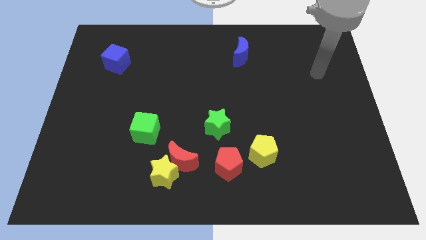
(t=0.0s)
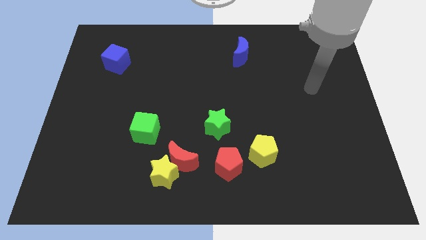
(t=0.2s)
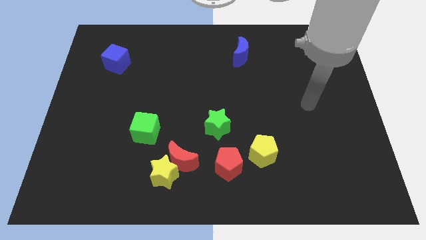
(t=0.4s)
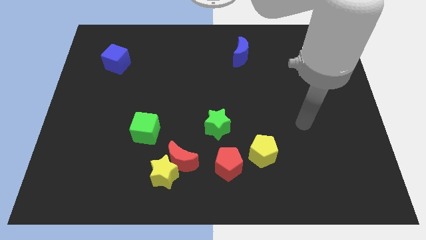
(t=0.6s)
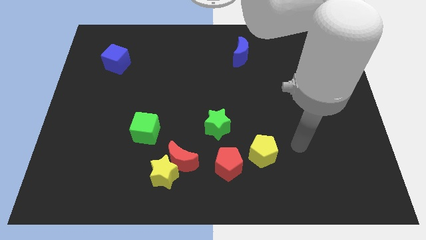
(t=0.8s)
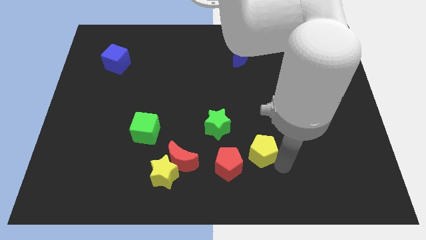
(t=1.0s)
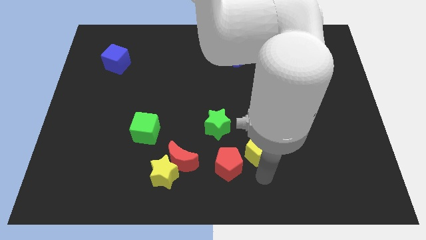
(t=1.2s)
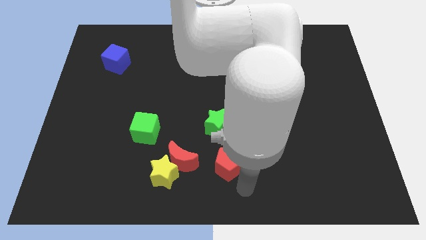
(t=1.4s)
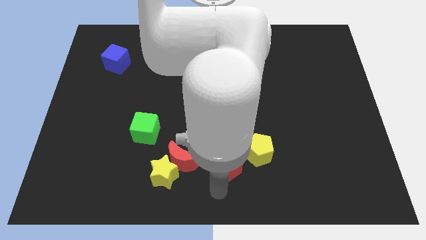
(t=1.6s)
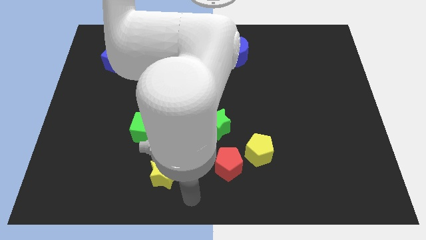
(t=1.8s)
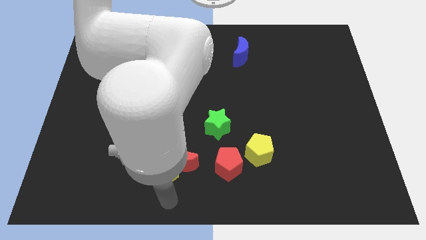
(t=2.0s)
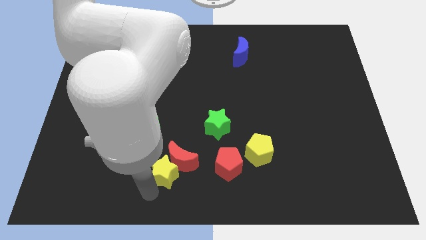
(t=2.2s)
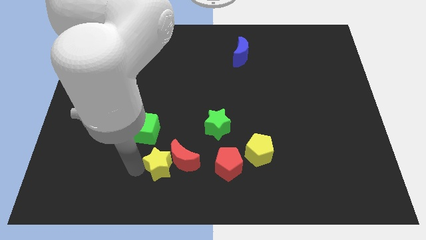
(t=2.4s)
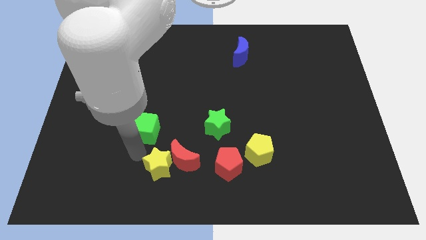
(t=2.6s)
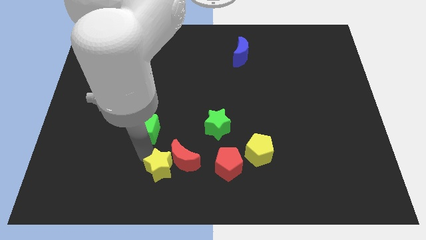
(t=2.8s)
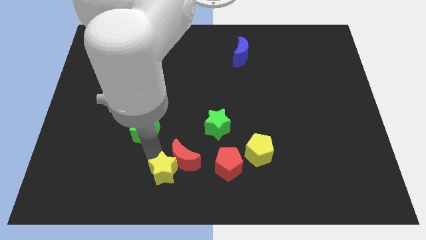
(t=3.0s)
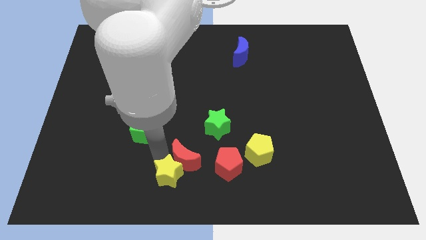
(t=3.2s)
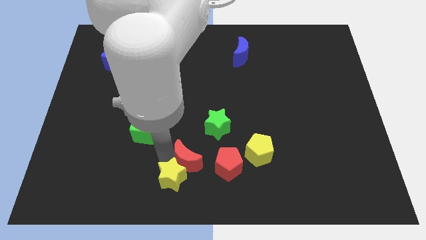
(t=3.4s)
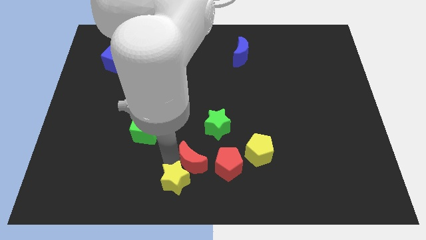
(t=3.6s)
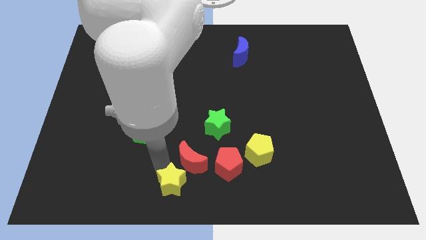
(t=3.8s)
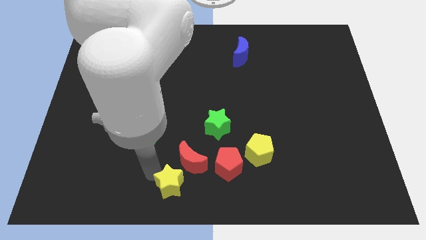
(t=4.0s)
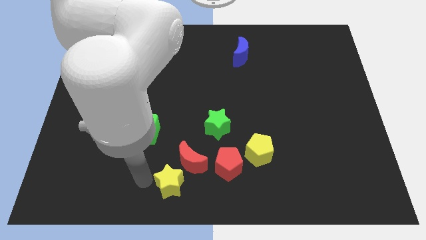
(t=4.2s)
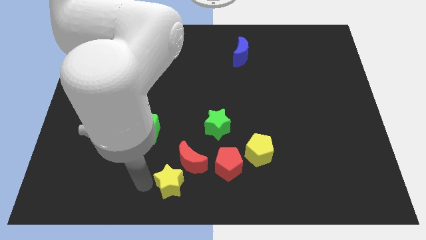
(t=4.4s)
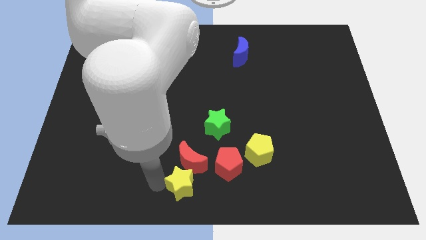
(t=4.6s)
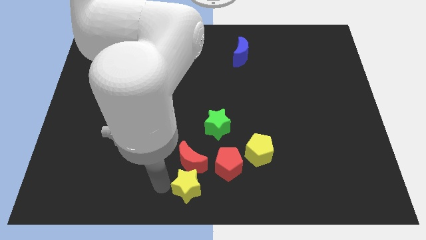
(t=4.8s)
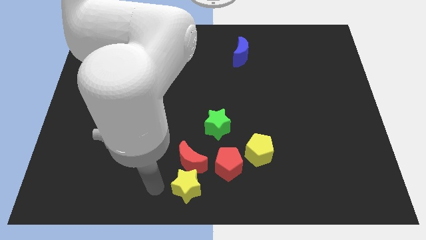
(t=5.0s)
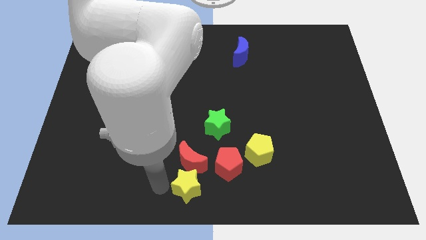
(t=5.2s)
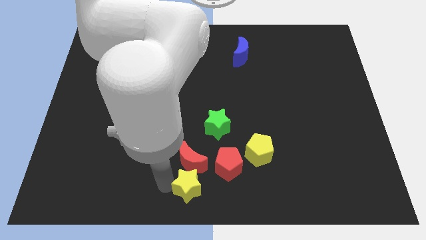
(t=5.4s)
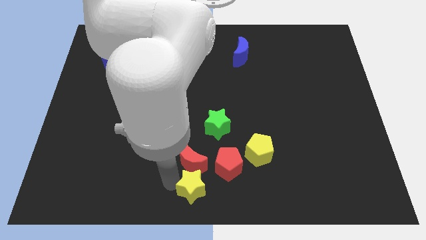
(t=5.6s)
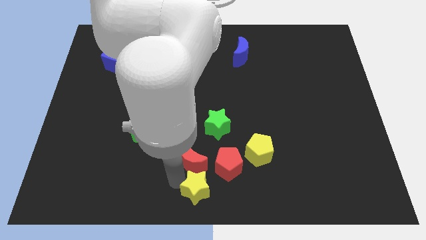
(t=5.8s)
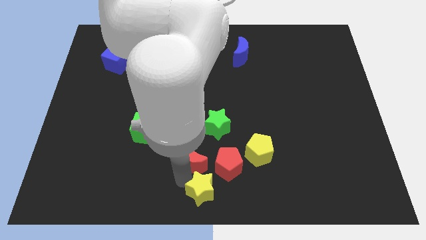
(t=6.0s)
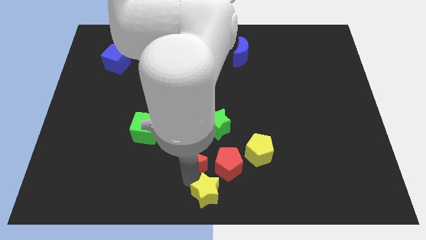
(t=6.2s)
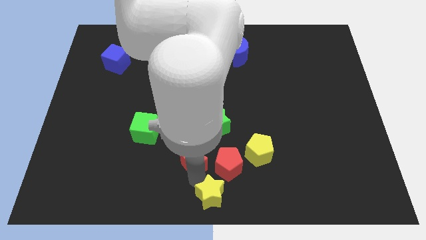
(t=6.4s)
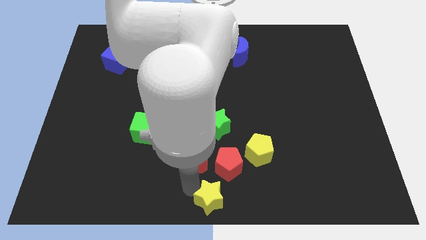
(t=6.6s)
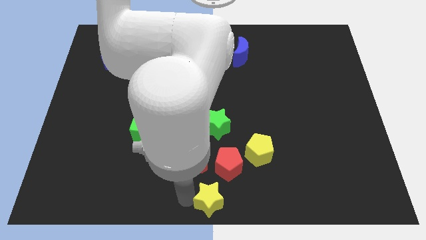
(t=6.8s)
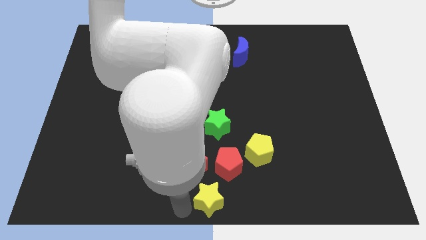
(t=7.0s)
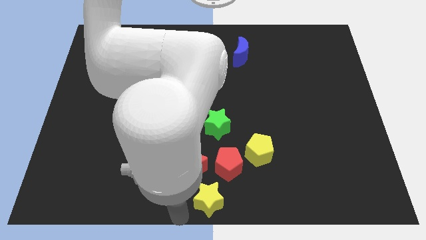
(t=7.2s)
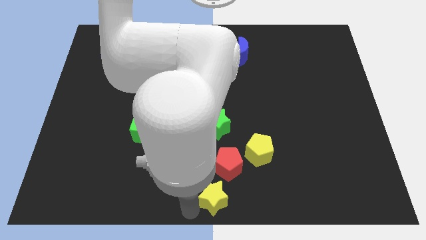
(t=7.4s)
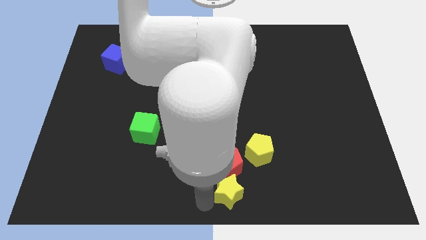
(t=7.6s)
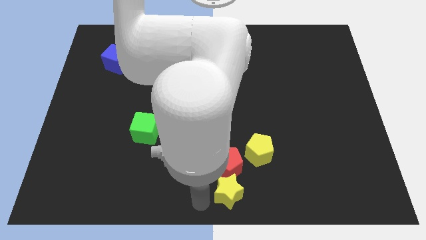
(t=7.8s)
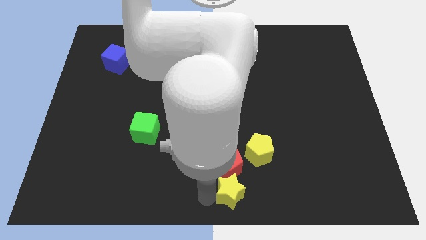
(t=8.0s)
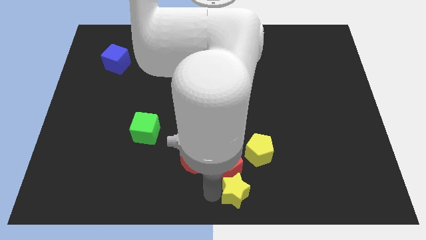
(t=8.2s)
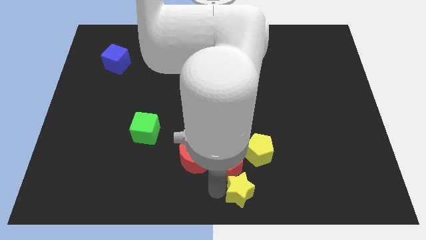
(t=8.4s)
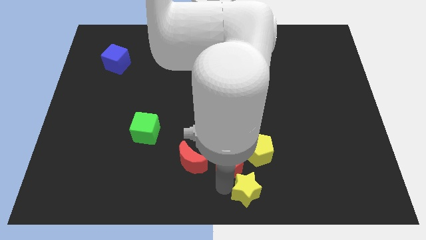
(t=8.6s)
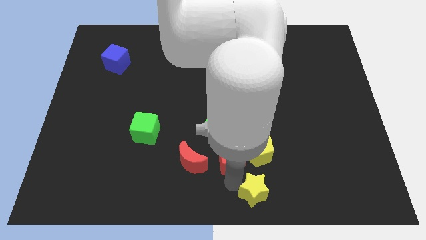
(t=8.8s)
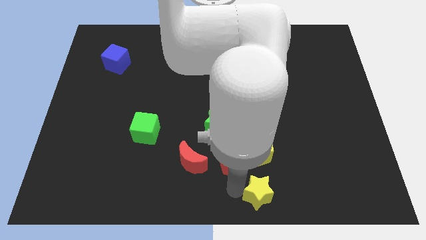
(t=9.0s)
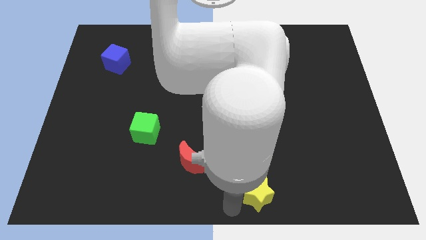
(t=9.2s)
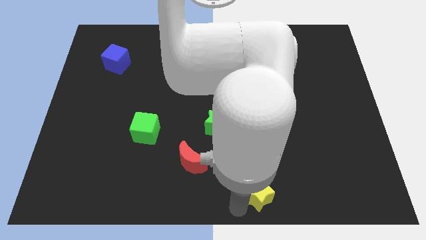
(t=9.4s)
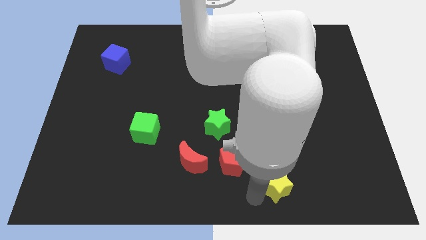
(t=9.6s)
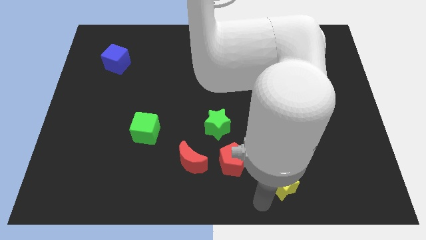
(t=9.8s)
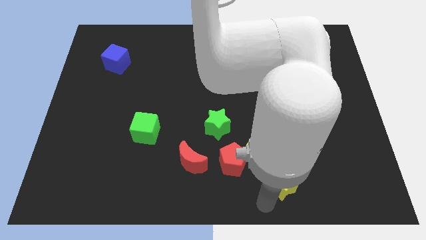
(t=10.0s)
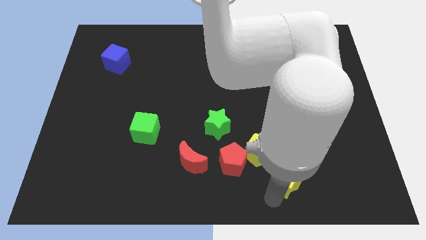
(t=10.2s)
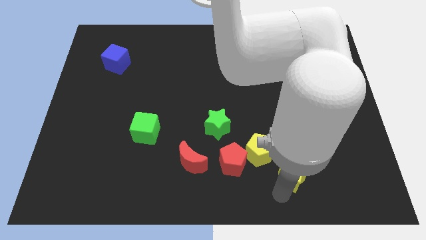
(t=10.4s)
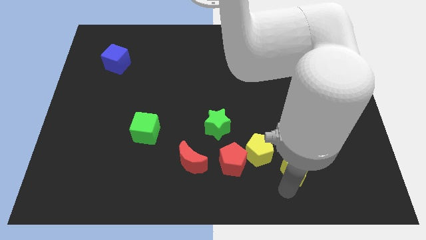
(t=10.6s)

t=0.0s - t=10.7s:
put the yellow star to the right side of the yellow pentagon

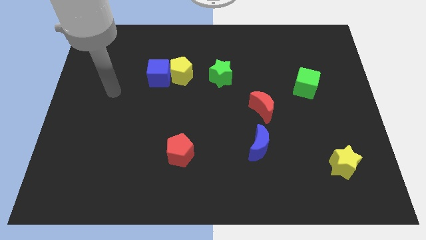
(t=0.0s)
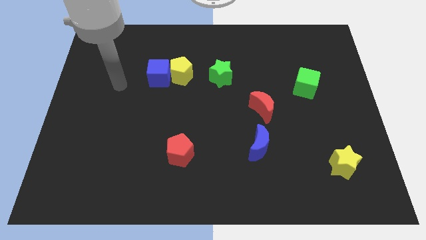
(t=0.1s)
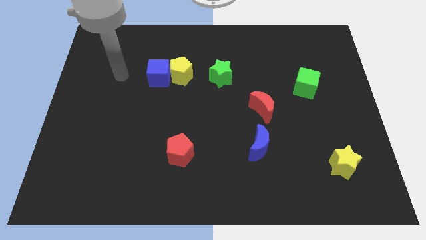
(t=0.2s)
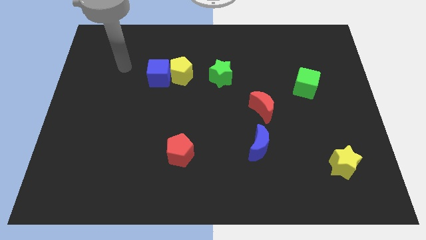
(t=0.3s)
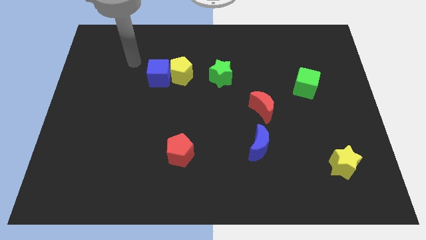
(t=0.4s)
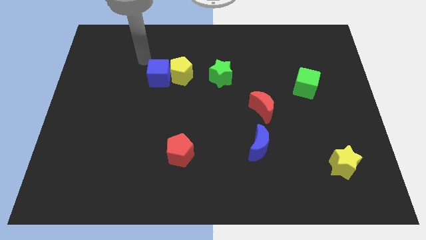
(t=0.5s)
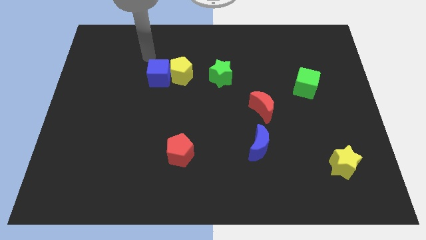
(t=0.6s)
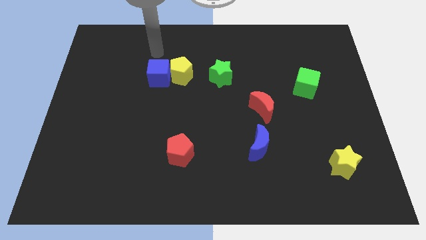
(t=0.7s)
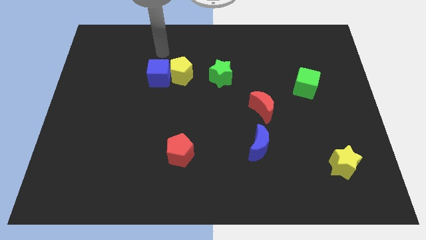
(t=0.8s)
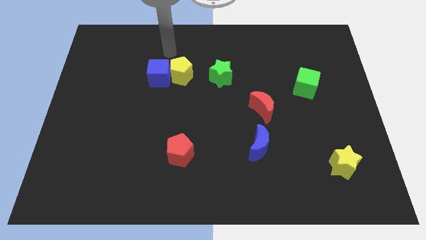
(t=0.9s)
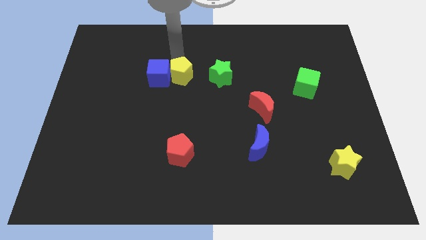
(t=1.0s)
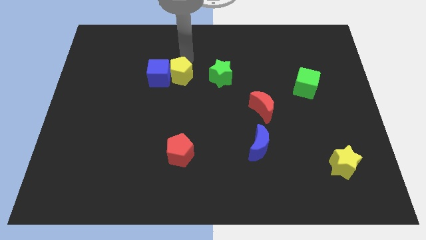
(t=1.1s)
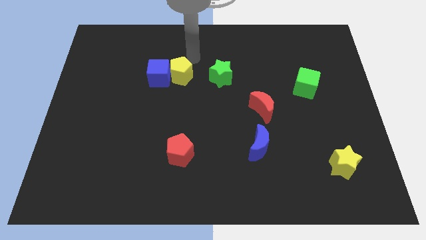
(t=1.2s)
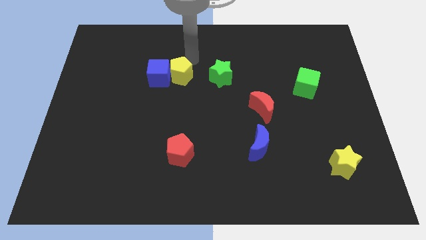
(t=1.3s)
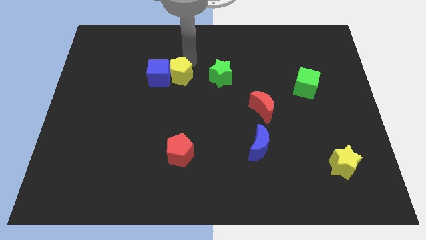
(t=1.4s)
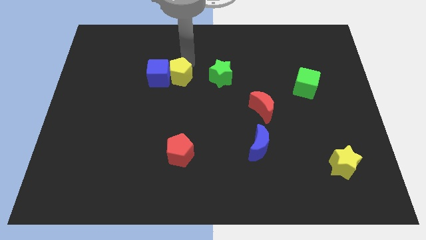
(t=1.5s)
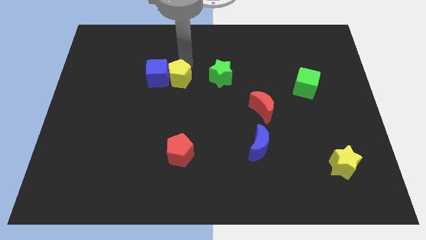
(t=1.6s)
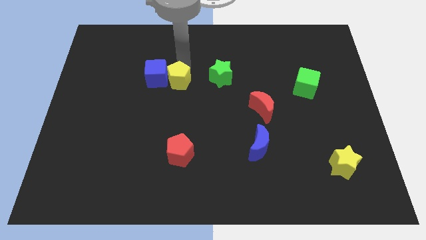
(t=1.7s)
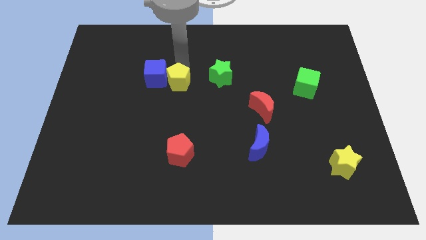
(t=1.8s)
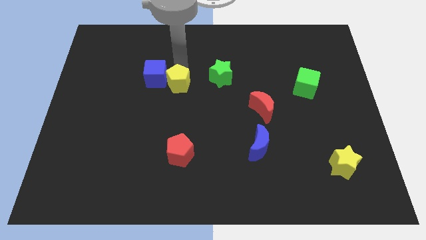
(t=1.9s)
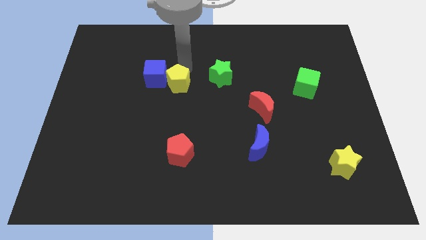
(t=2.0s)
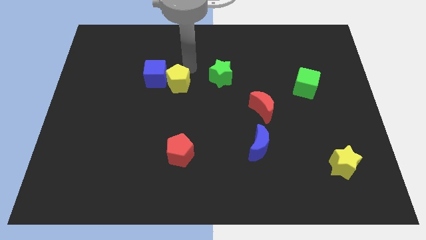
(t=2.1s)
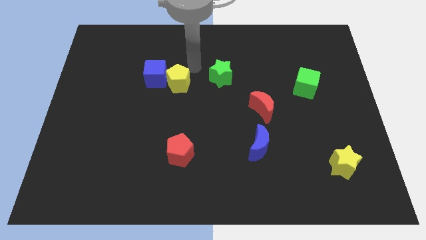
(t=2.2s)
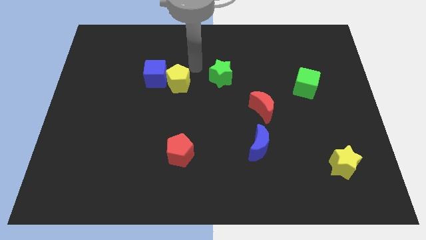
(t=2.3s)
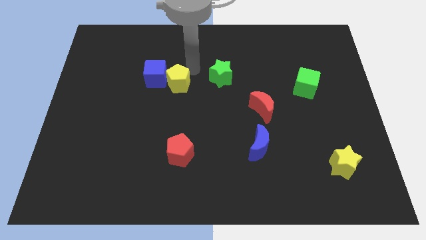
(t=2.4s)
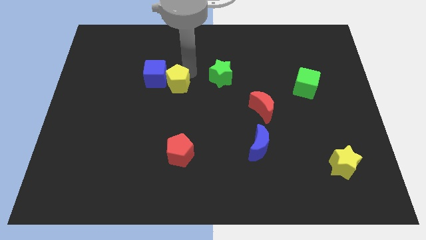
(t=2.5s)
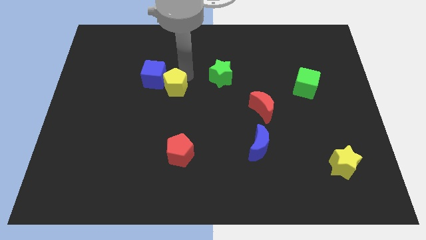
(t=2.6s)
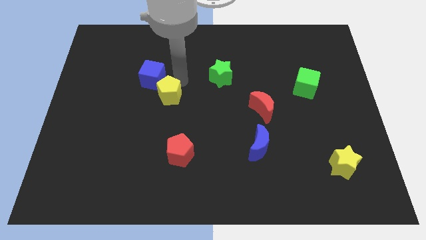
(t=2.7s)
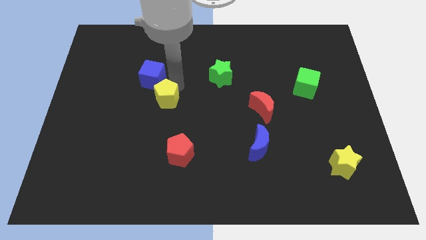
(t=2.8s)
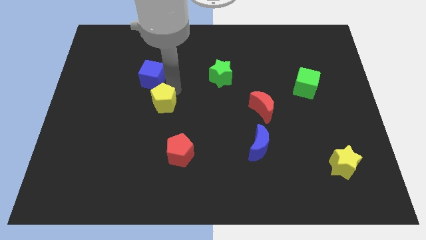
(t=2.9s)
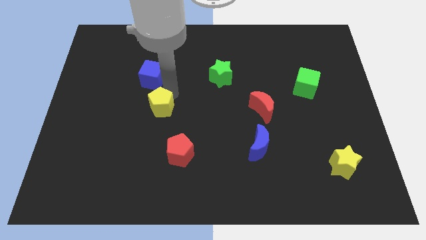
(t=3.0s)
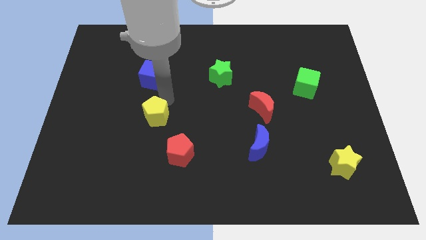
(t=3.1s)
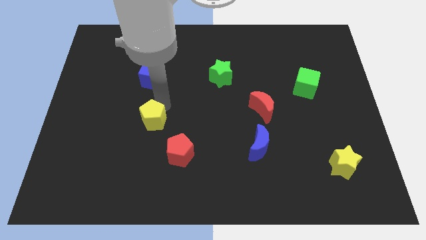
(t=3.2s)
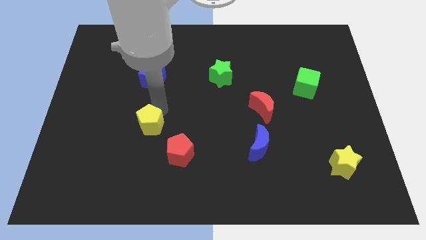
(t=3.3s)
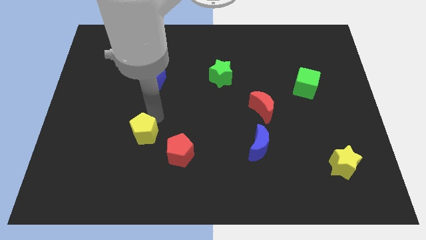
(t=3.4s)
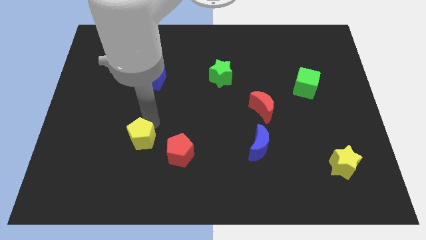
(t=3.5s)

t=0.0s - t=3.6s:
slide the yellow pentagon to the left side of the red pentagon
